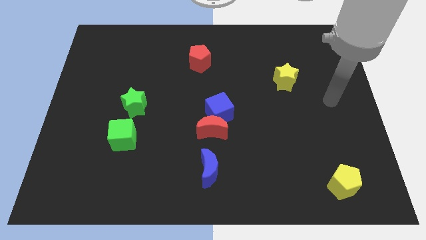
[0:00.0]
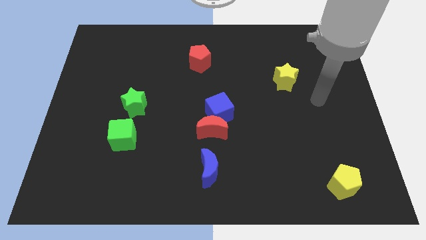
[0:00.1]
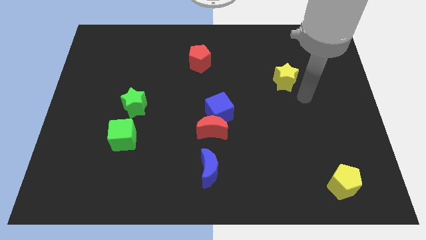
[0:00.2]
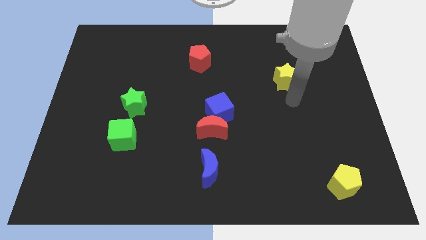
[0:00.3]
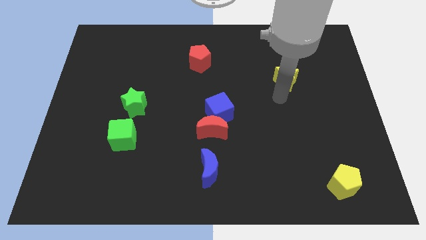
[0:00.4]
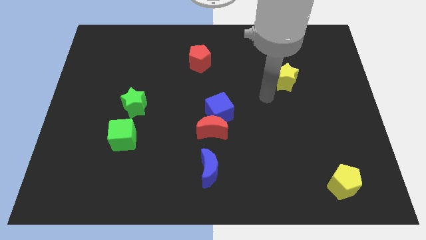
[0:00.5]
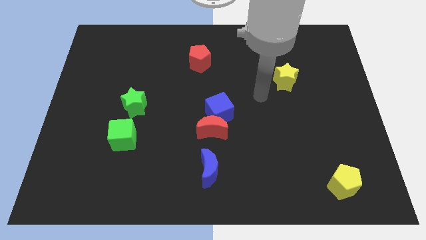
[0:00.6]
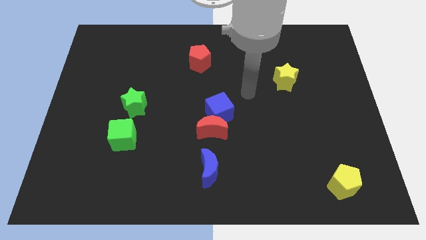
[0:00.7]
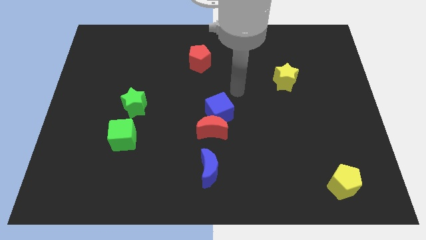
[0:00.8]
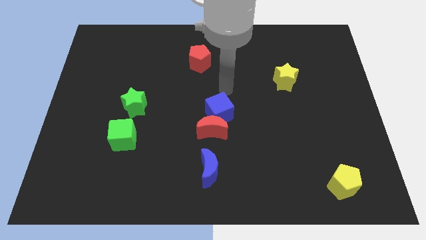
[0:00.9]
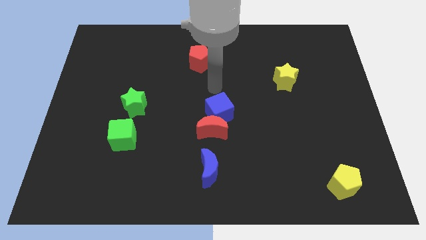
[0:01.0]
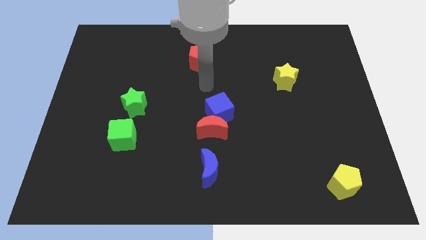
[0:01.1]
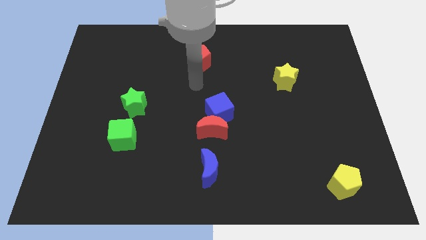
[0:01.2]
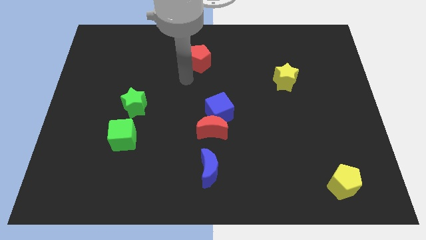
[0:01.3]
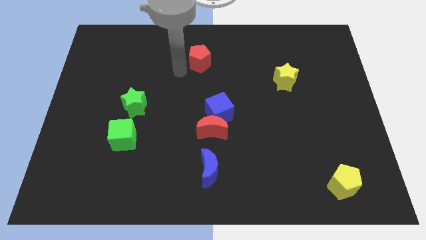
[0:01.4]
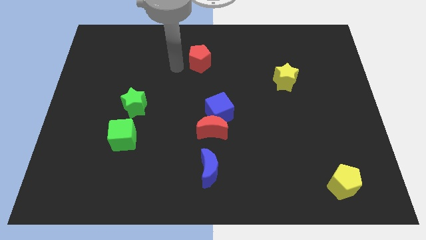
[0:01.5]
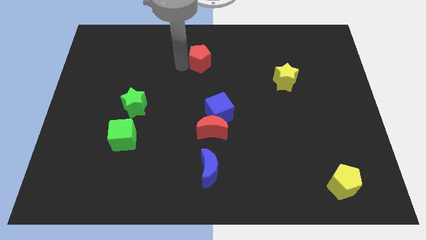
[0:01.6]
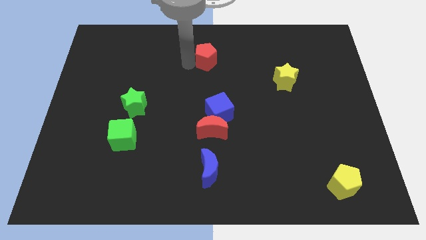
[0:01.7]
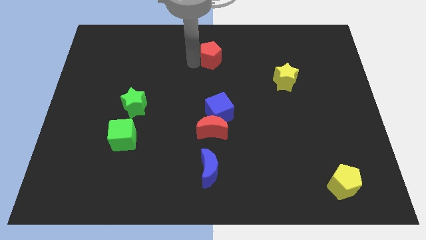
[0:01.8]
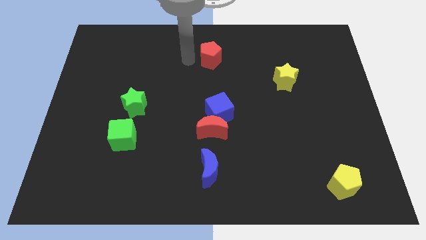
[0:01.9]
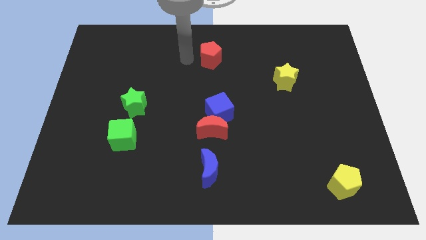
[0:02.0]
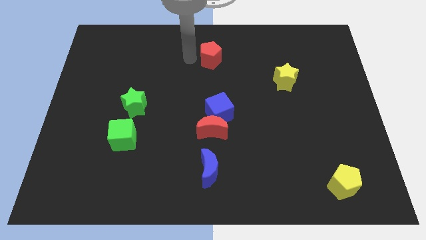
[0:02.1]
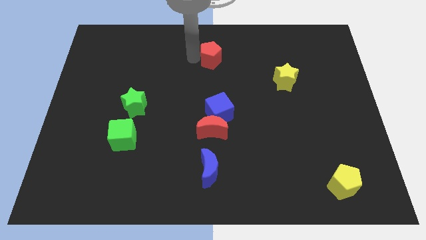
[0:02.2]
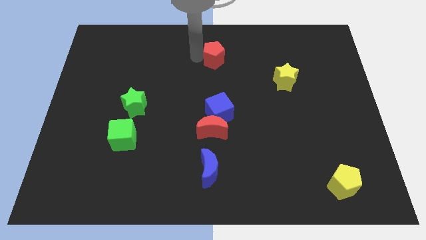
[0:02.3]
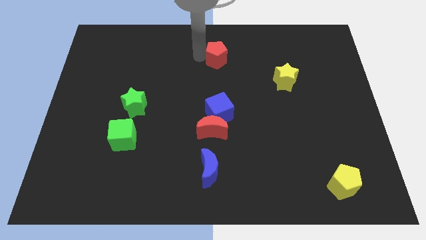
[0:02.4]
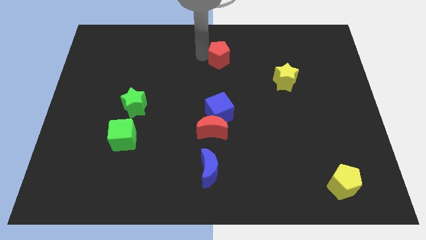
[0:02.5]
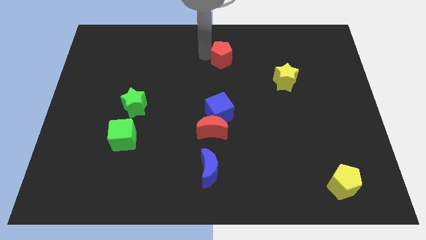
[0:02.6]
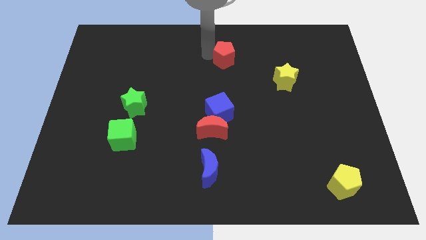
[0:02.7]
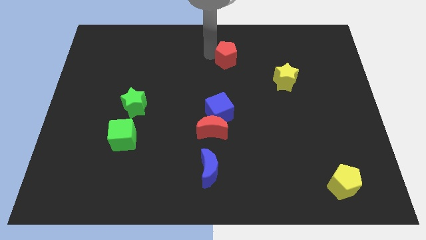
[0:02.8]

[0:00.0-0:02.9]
move the red pentagon to the right slightly

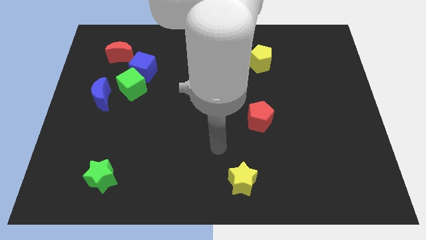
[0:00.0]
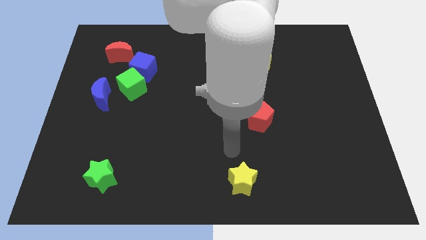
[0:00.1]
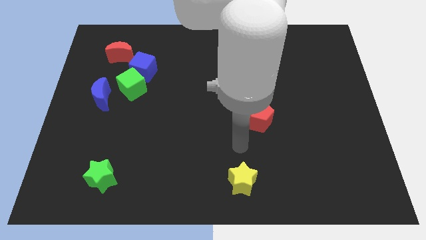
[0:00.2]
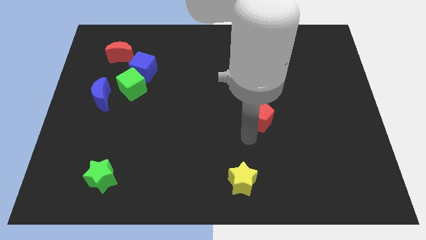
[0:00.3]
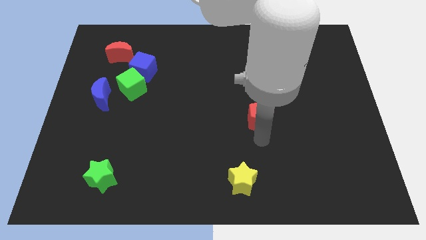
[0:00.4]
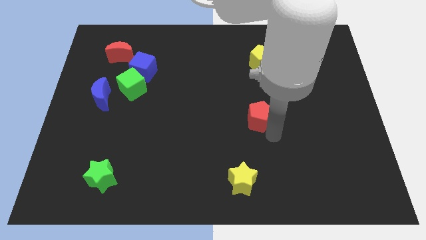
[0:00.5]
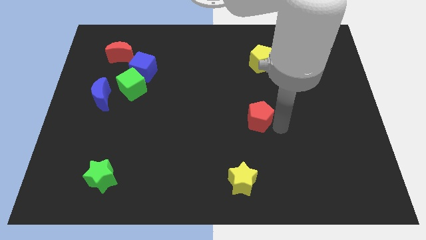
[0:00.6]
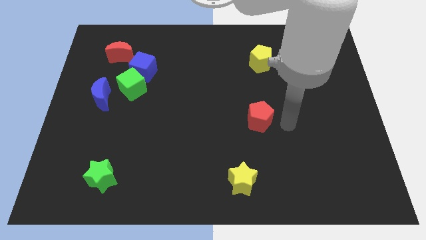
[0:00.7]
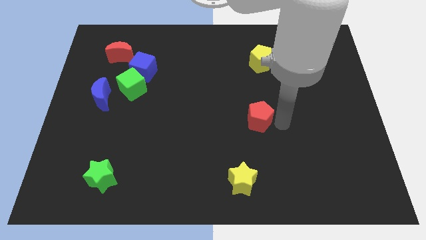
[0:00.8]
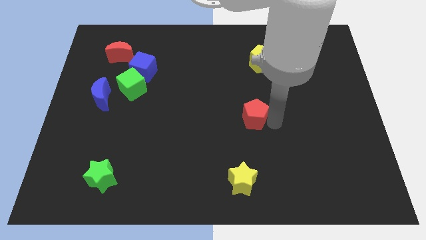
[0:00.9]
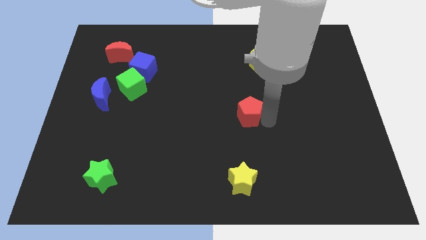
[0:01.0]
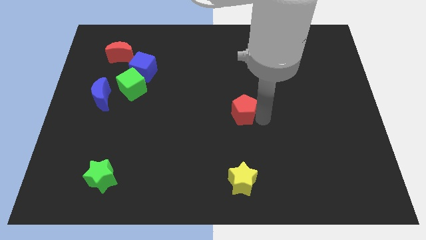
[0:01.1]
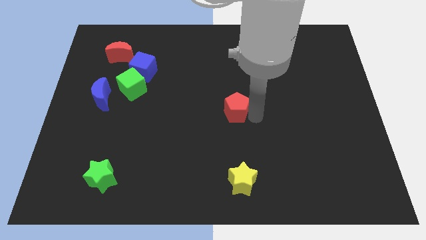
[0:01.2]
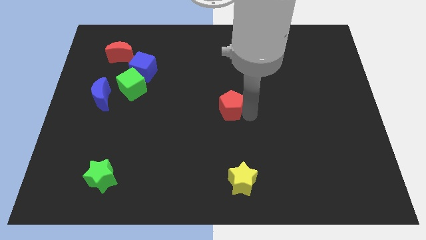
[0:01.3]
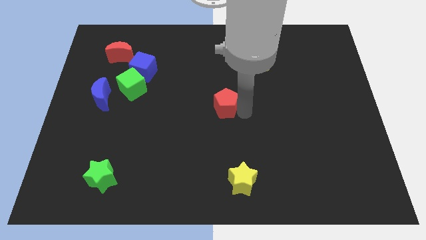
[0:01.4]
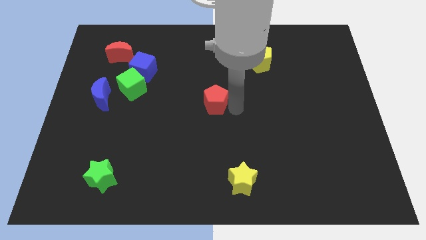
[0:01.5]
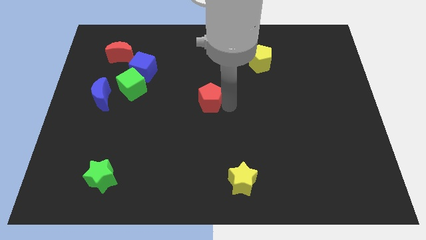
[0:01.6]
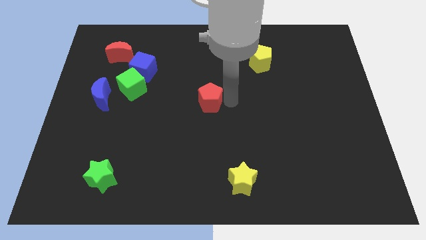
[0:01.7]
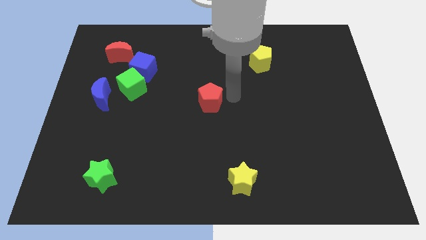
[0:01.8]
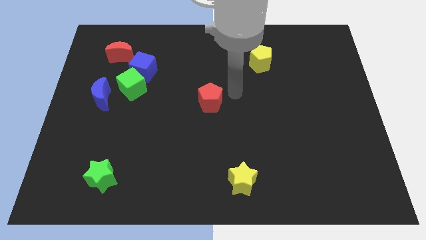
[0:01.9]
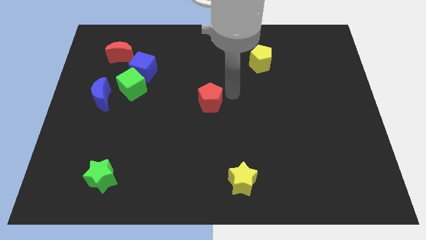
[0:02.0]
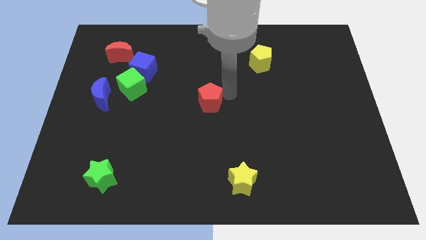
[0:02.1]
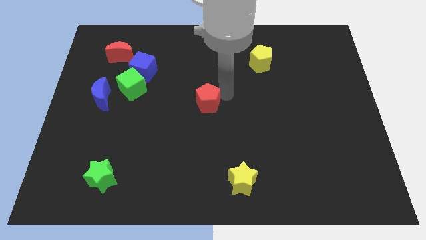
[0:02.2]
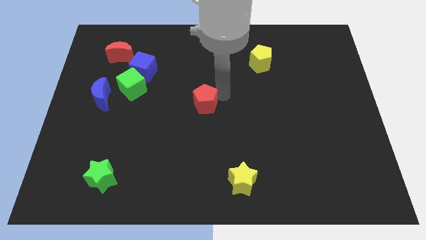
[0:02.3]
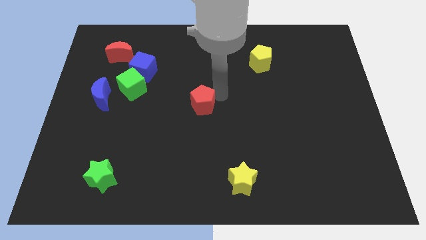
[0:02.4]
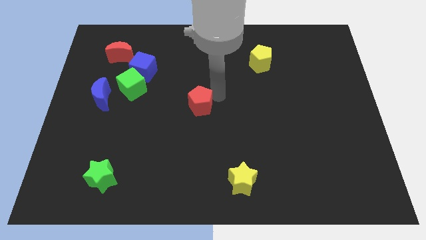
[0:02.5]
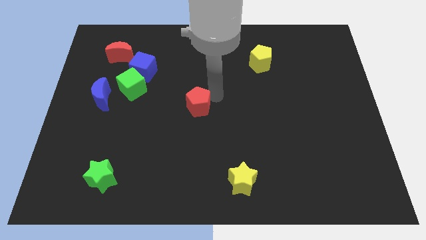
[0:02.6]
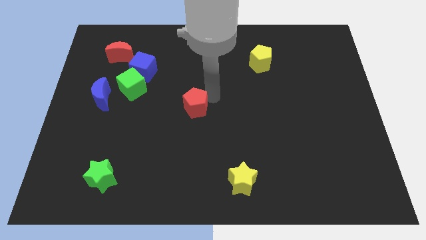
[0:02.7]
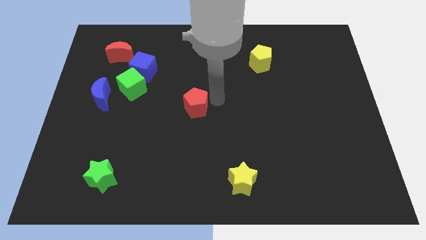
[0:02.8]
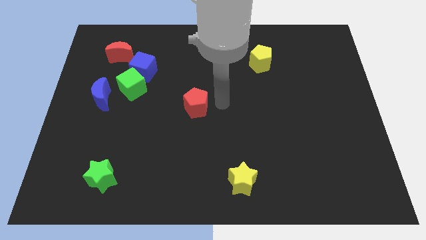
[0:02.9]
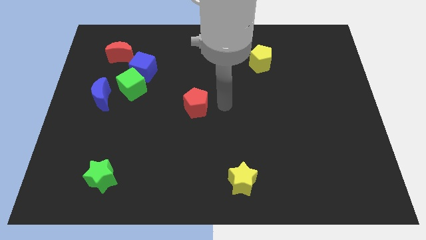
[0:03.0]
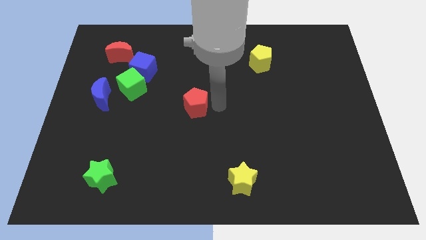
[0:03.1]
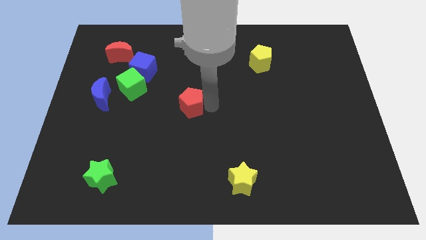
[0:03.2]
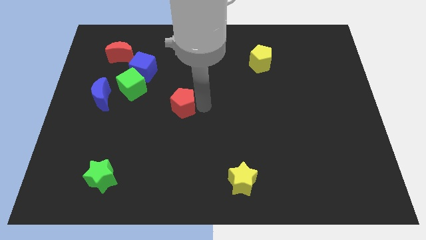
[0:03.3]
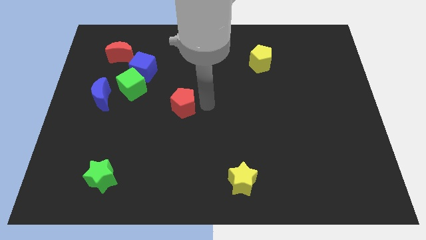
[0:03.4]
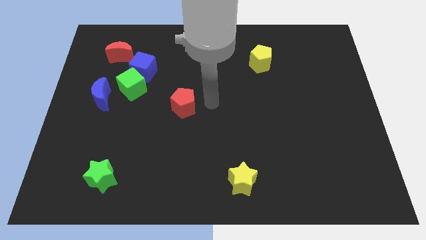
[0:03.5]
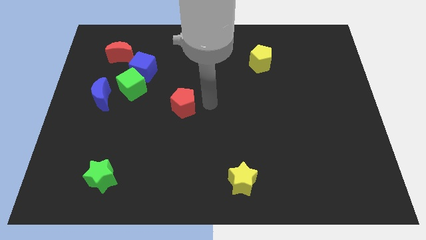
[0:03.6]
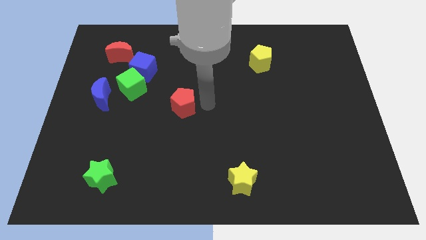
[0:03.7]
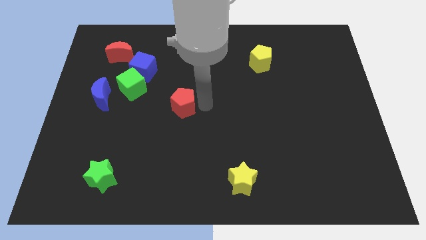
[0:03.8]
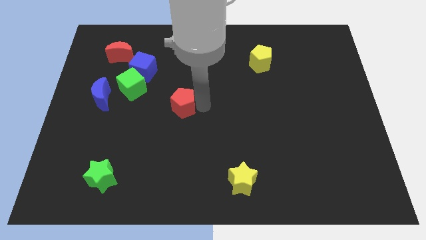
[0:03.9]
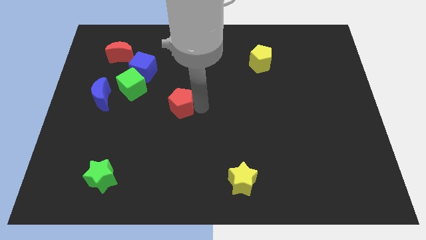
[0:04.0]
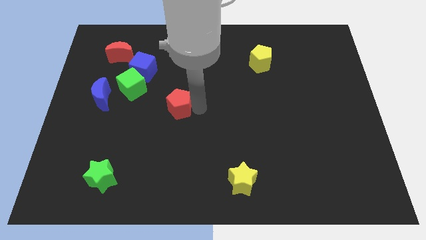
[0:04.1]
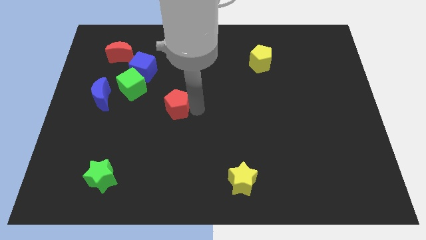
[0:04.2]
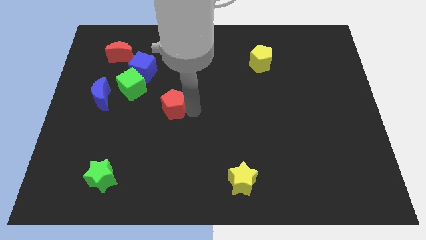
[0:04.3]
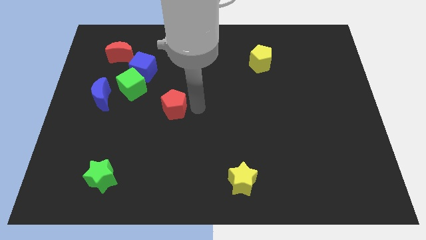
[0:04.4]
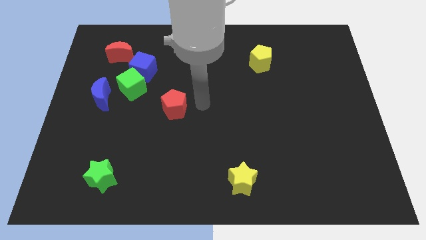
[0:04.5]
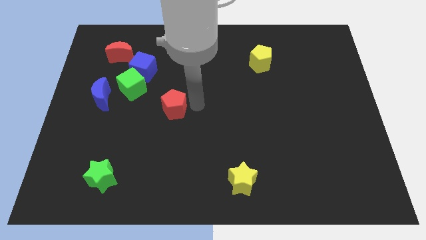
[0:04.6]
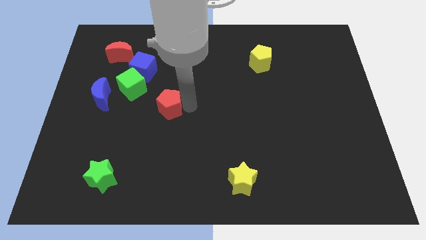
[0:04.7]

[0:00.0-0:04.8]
push the red pentagon to the left
